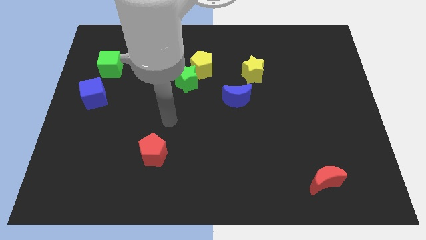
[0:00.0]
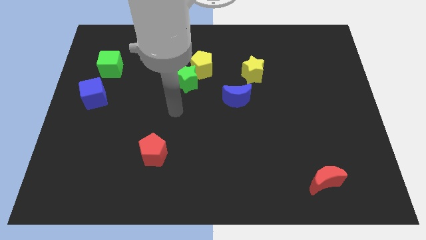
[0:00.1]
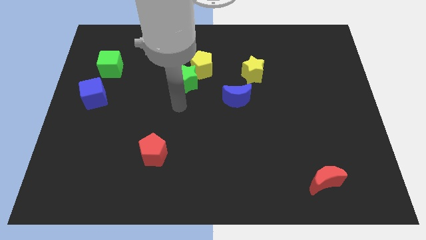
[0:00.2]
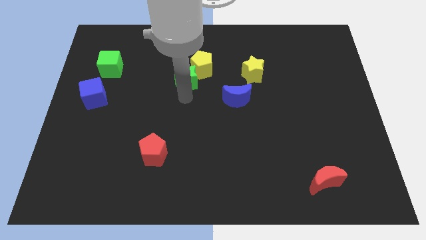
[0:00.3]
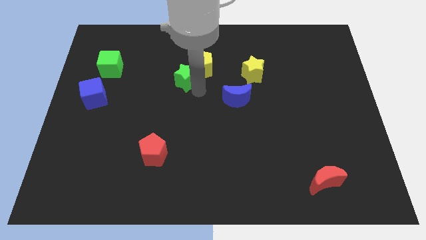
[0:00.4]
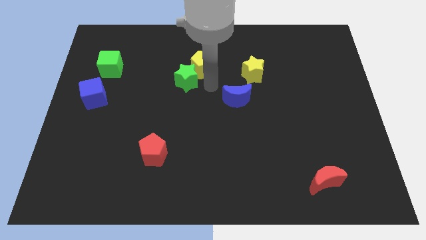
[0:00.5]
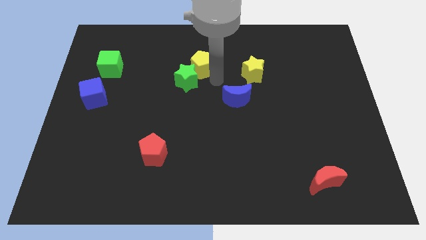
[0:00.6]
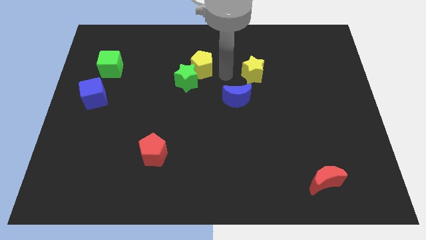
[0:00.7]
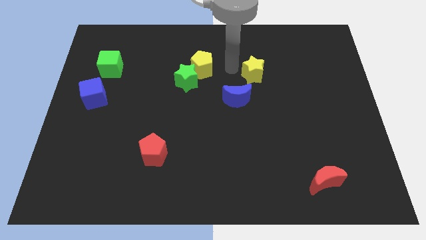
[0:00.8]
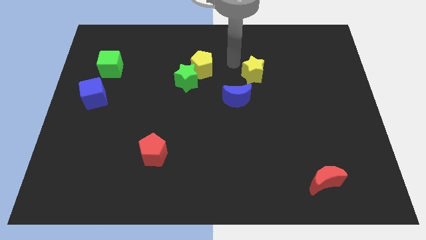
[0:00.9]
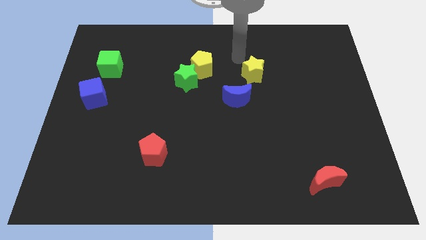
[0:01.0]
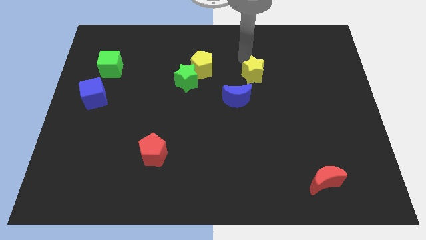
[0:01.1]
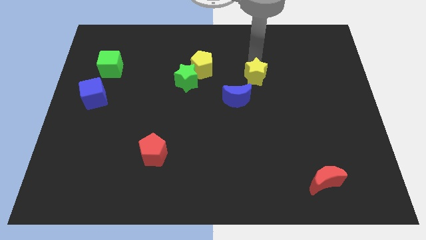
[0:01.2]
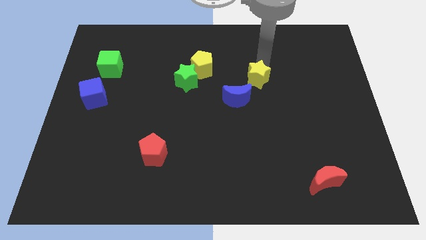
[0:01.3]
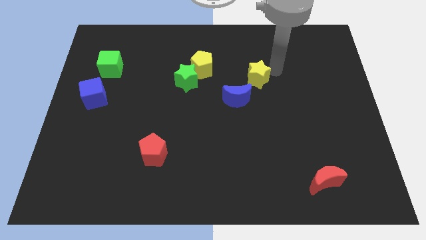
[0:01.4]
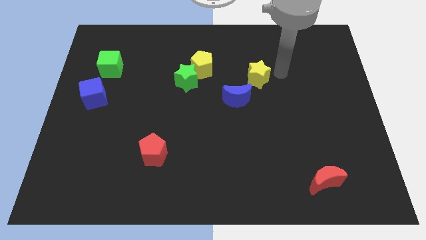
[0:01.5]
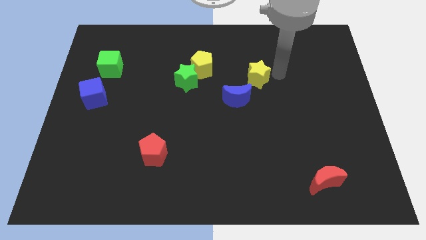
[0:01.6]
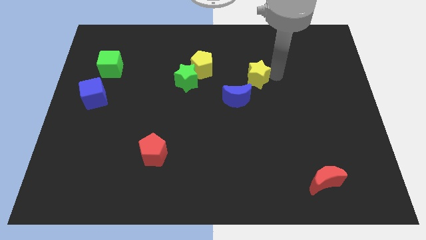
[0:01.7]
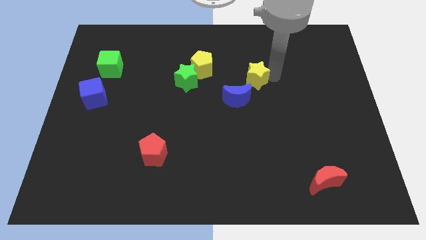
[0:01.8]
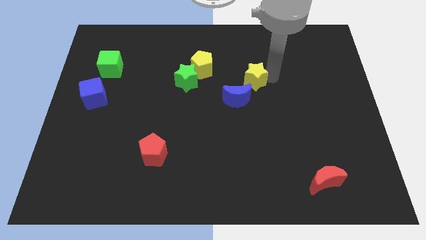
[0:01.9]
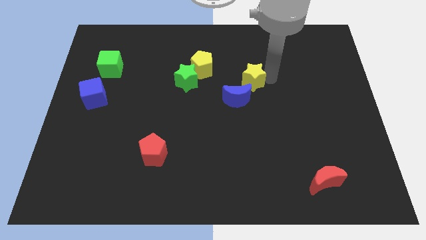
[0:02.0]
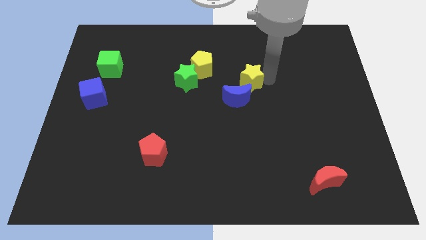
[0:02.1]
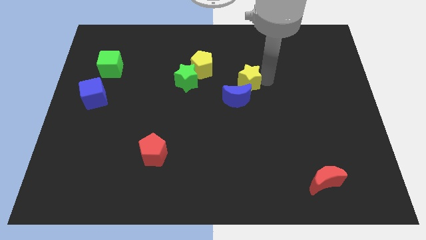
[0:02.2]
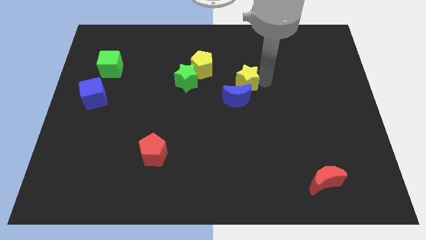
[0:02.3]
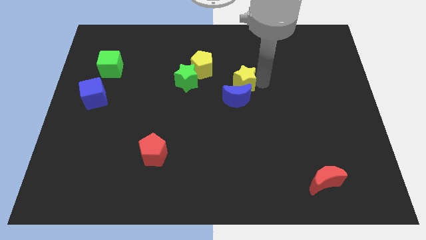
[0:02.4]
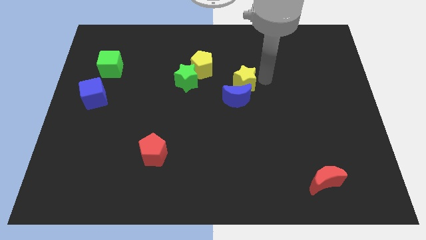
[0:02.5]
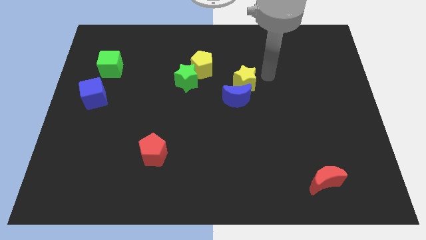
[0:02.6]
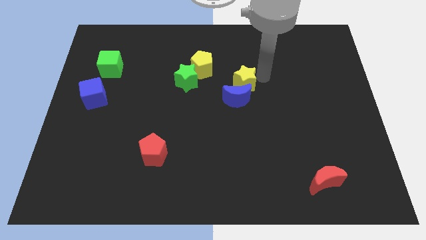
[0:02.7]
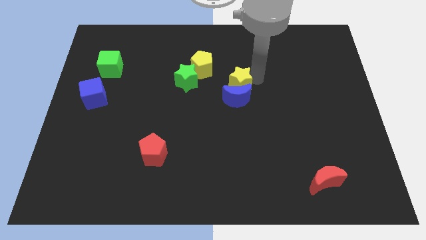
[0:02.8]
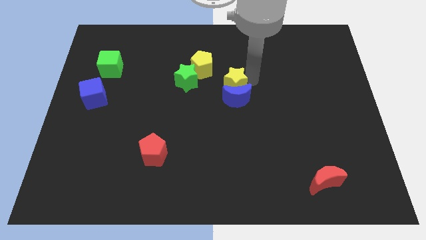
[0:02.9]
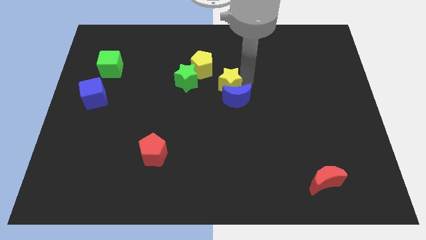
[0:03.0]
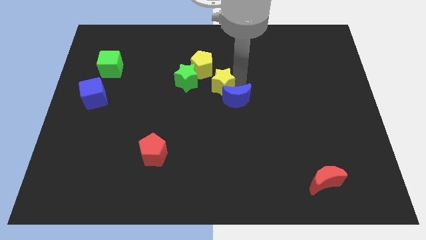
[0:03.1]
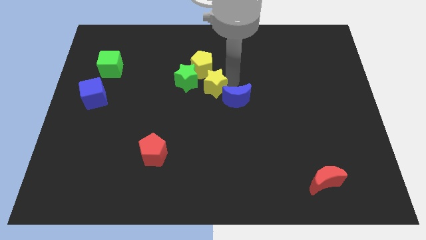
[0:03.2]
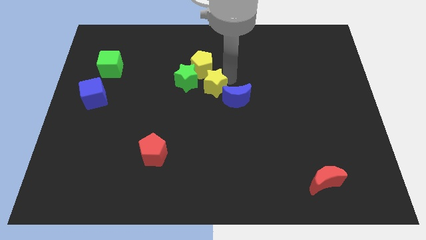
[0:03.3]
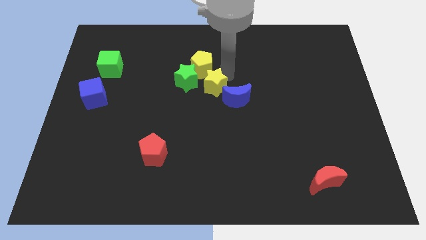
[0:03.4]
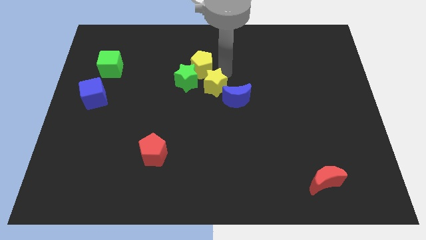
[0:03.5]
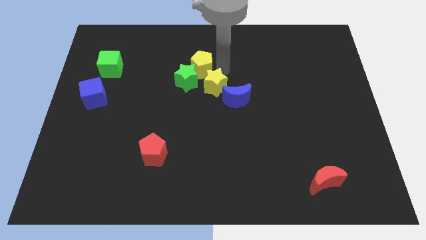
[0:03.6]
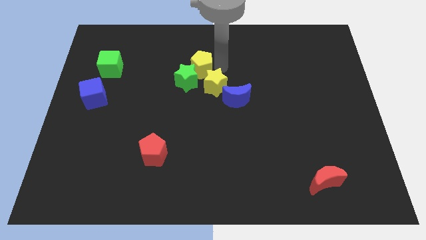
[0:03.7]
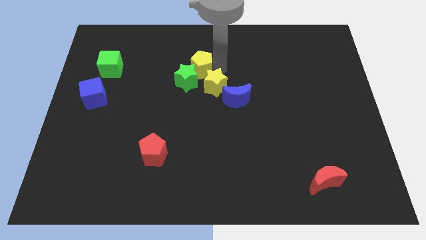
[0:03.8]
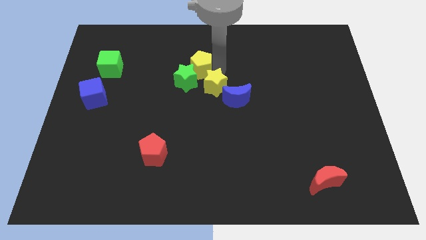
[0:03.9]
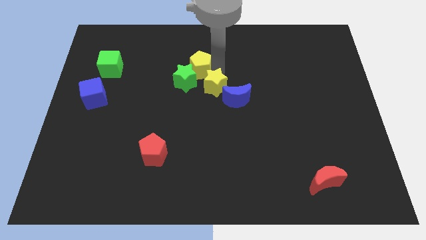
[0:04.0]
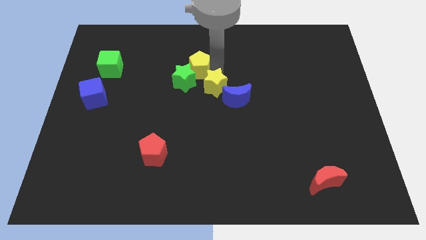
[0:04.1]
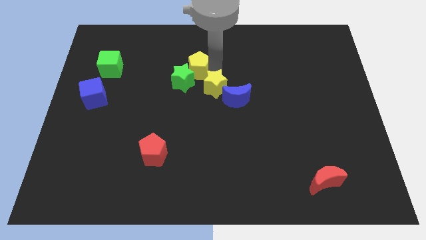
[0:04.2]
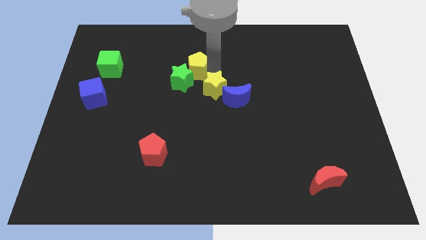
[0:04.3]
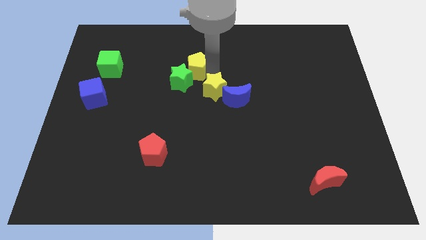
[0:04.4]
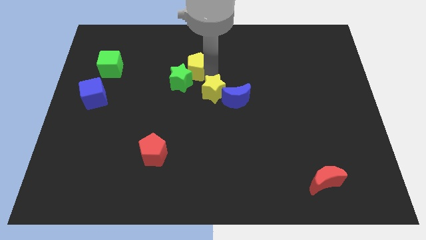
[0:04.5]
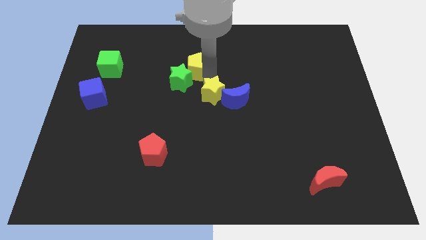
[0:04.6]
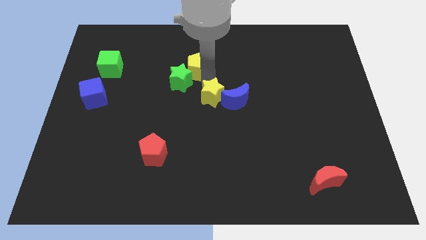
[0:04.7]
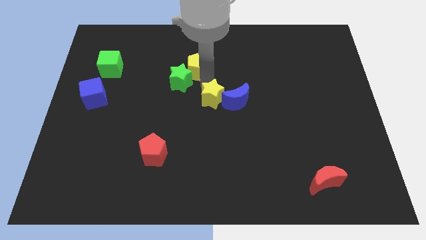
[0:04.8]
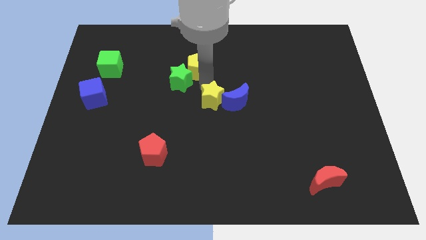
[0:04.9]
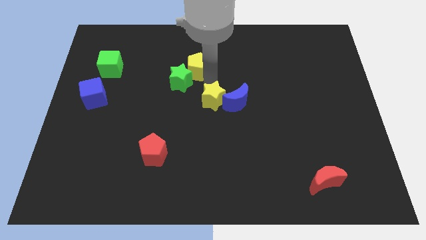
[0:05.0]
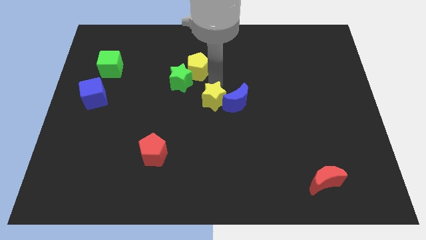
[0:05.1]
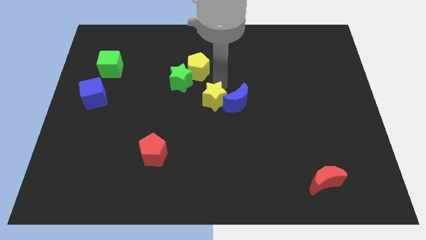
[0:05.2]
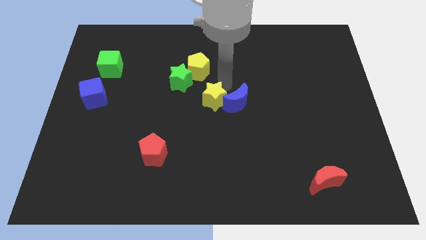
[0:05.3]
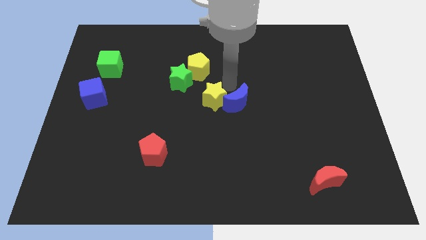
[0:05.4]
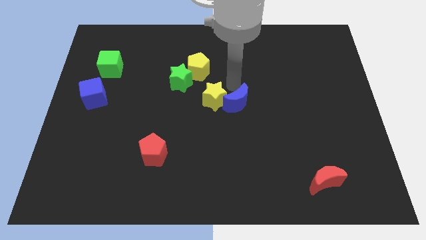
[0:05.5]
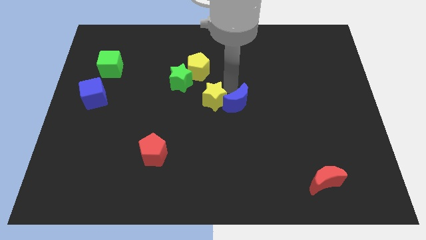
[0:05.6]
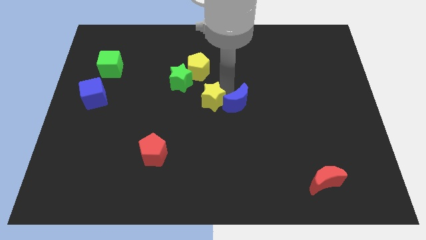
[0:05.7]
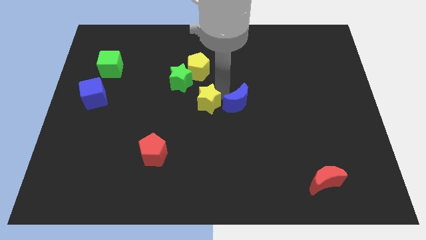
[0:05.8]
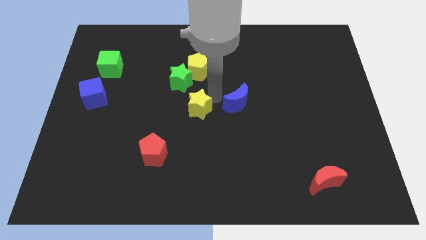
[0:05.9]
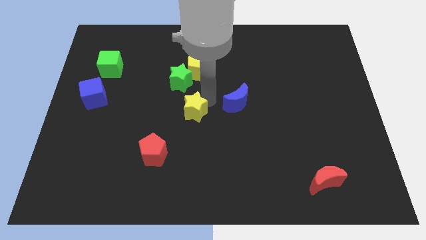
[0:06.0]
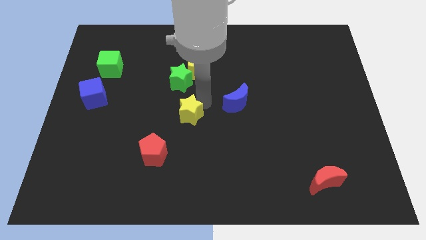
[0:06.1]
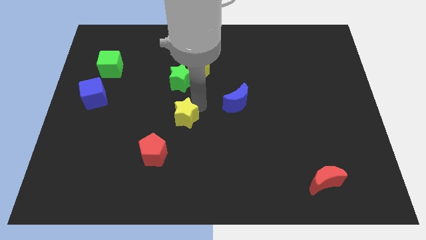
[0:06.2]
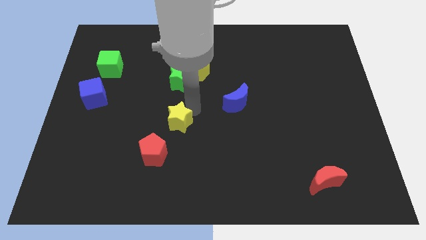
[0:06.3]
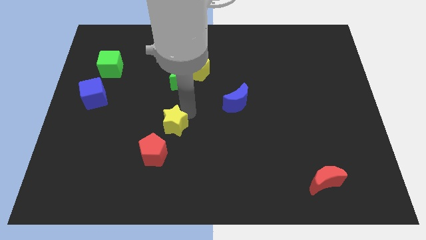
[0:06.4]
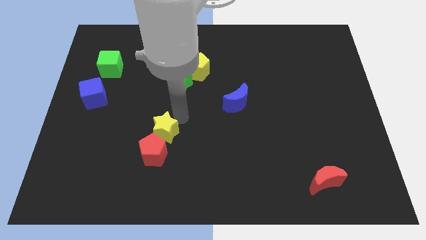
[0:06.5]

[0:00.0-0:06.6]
put the yellow star close to the red pentagon

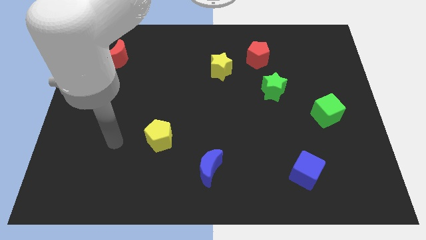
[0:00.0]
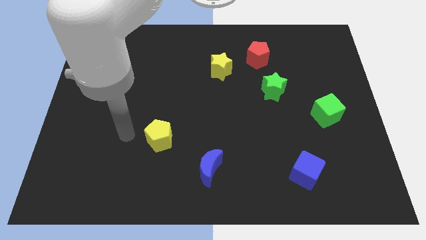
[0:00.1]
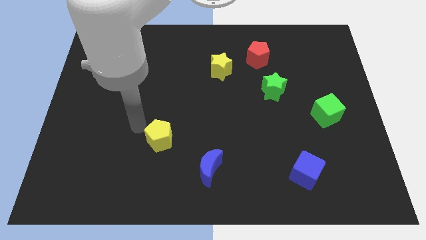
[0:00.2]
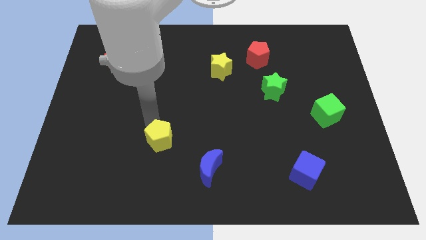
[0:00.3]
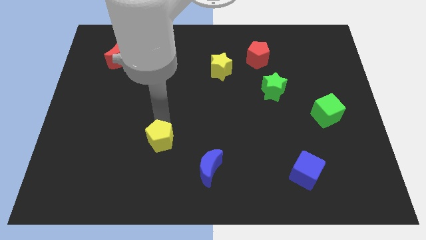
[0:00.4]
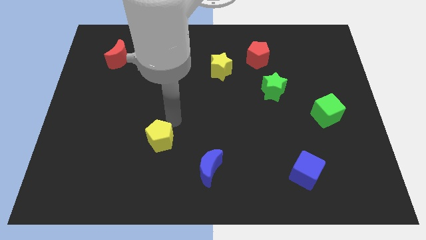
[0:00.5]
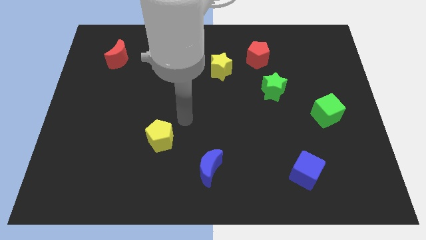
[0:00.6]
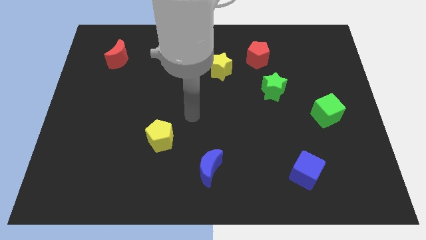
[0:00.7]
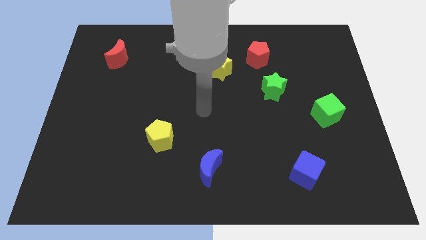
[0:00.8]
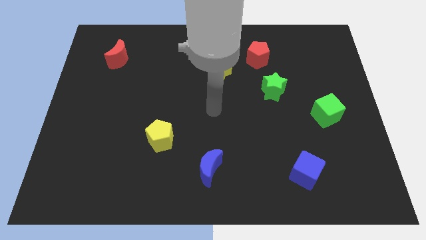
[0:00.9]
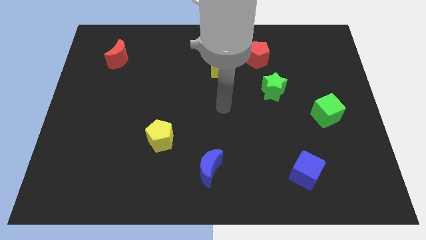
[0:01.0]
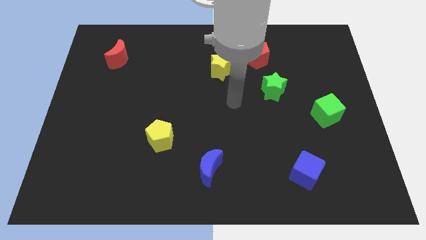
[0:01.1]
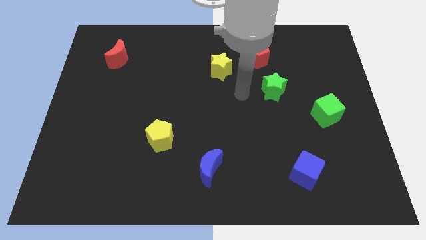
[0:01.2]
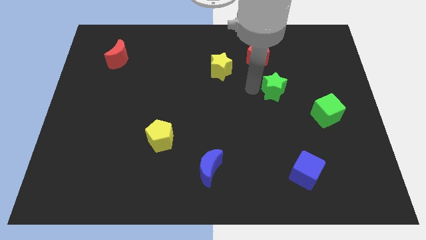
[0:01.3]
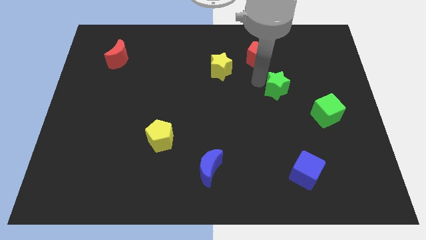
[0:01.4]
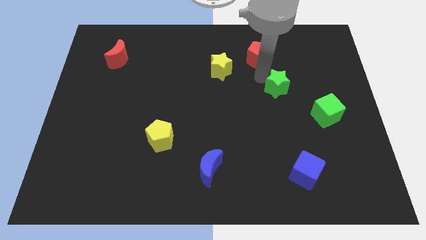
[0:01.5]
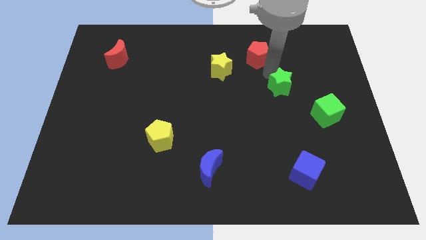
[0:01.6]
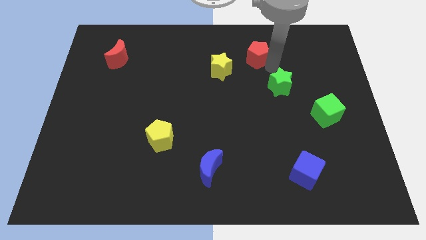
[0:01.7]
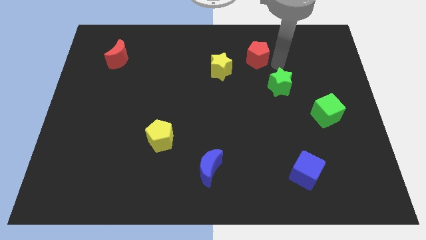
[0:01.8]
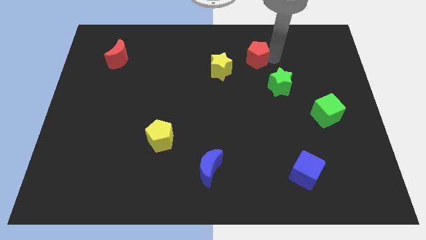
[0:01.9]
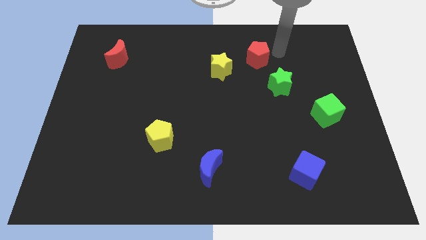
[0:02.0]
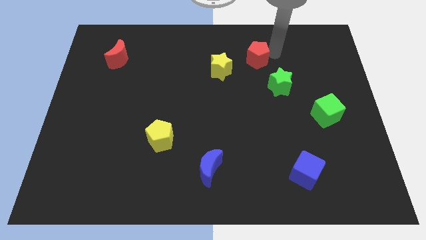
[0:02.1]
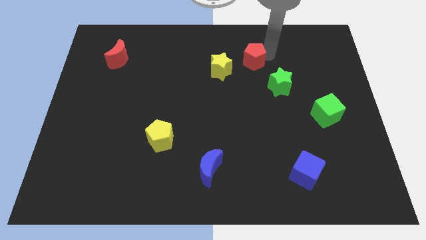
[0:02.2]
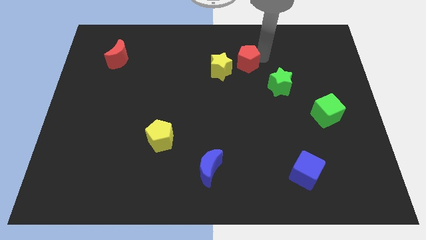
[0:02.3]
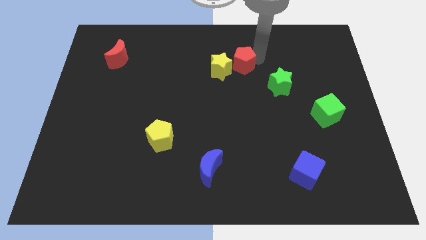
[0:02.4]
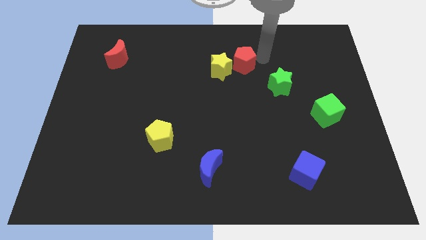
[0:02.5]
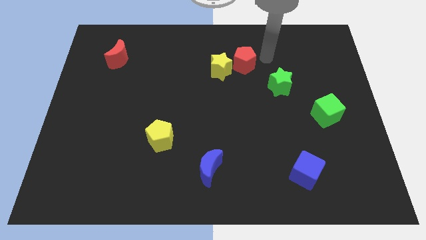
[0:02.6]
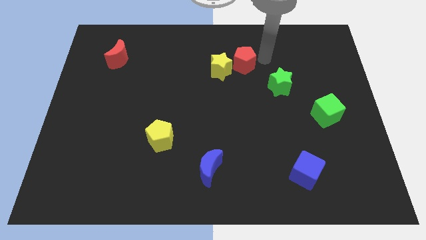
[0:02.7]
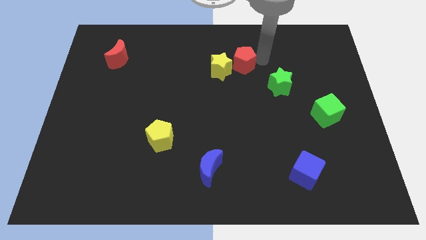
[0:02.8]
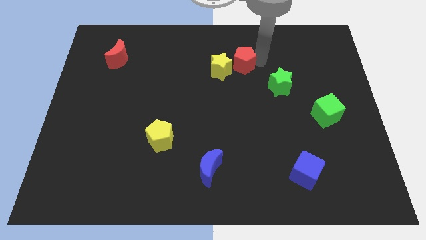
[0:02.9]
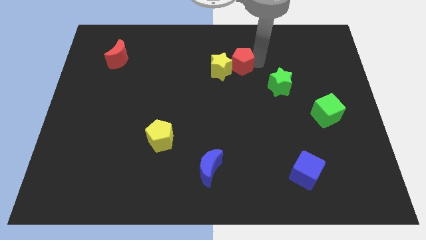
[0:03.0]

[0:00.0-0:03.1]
put the red pentagon towards the yellow star
